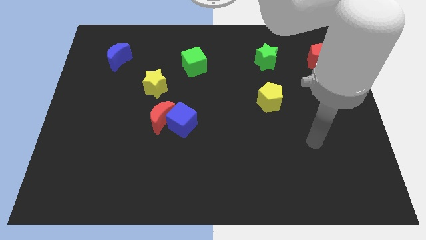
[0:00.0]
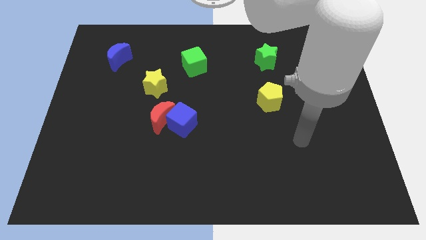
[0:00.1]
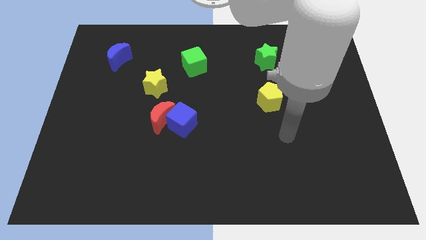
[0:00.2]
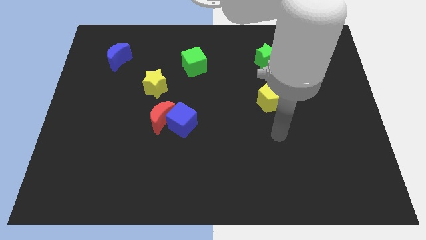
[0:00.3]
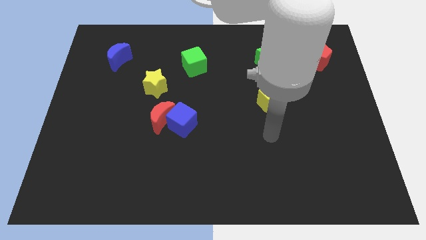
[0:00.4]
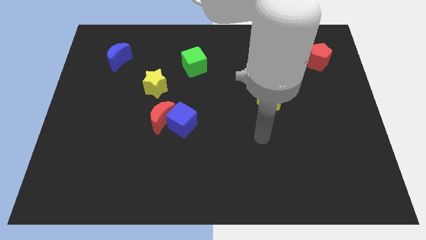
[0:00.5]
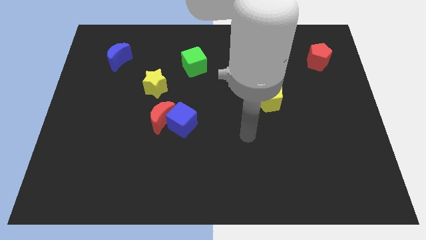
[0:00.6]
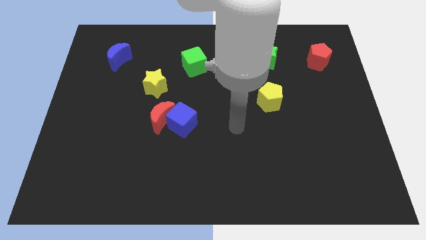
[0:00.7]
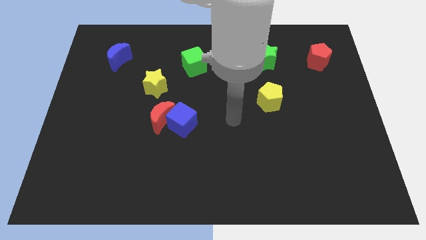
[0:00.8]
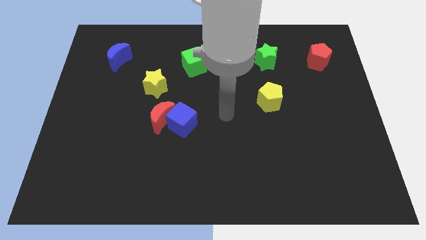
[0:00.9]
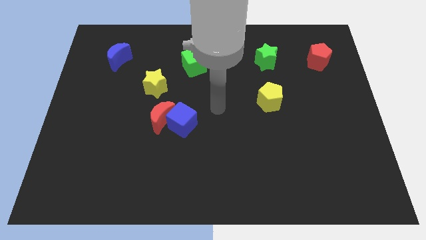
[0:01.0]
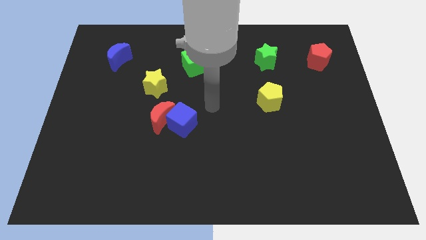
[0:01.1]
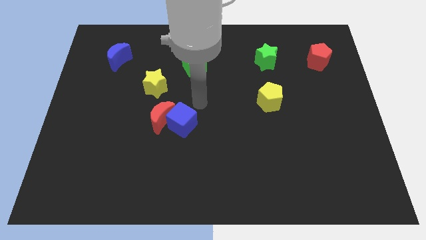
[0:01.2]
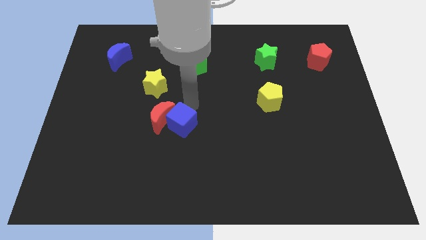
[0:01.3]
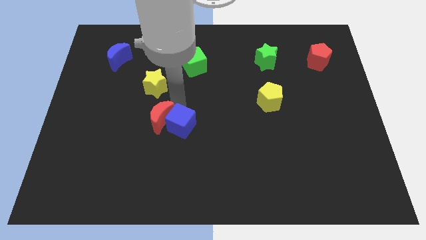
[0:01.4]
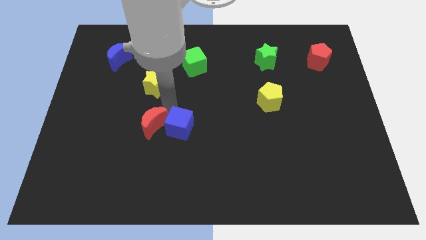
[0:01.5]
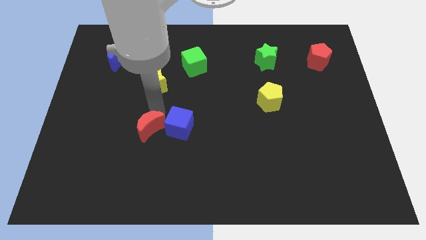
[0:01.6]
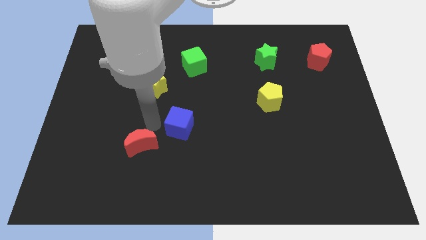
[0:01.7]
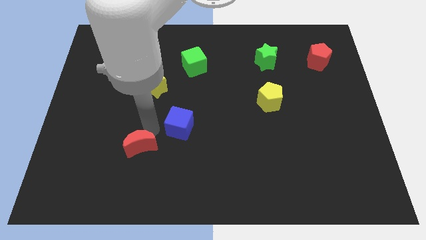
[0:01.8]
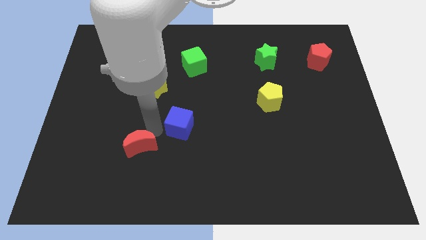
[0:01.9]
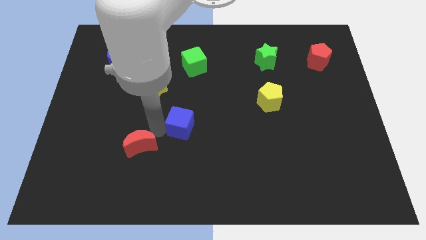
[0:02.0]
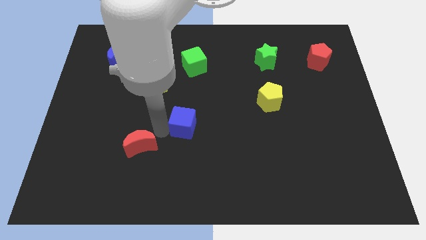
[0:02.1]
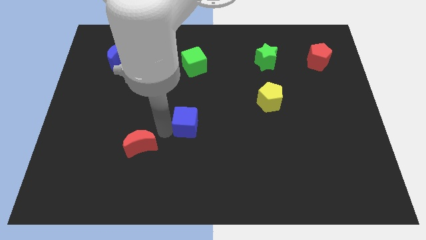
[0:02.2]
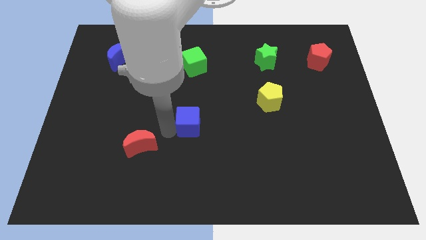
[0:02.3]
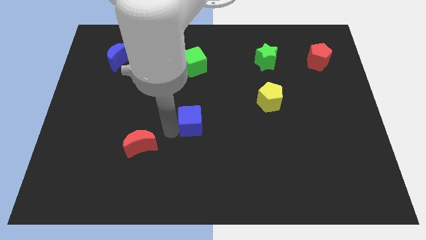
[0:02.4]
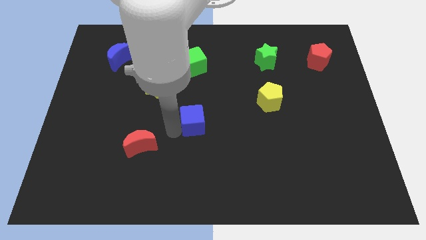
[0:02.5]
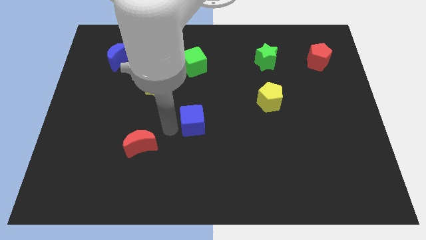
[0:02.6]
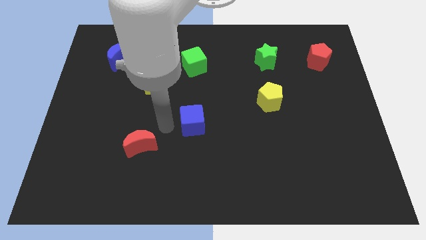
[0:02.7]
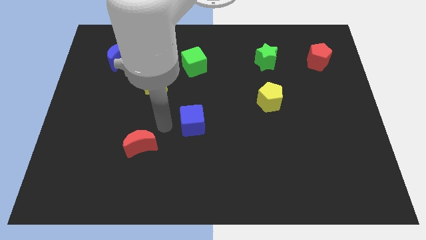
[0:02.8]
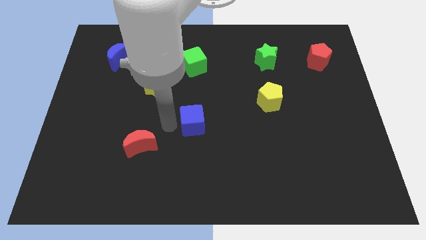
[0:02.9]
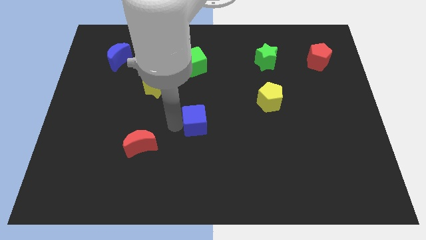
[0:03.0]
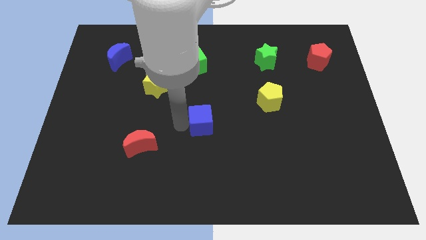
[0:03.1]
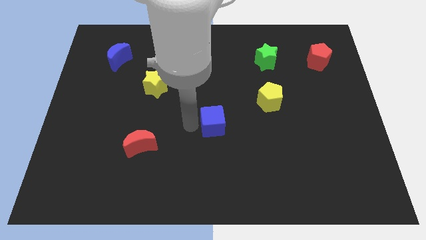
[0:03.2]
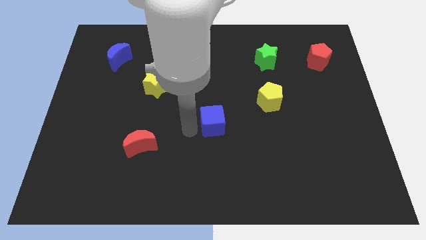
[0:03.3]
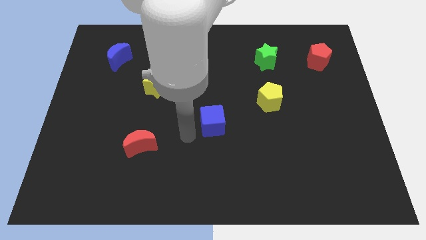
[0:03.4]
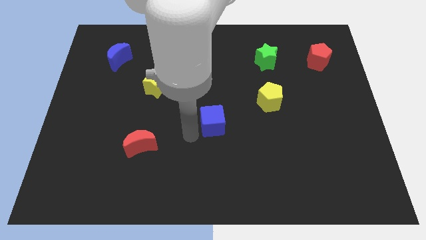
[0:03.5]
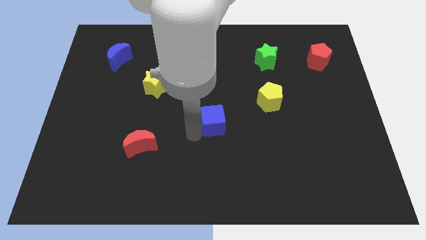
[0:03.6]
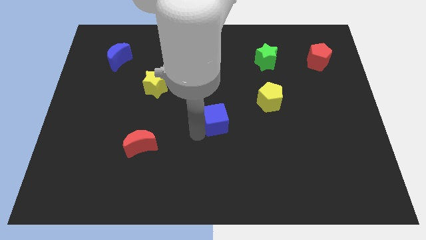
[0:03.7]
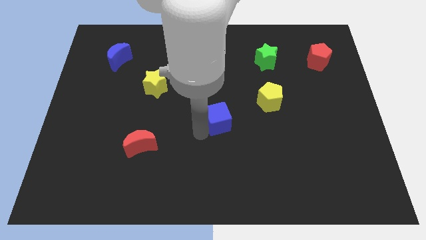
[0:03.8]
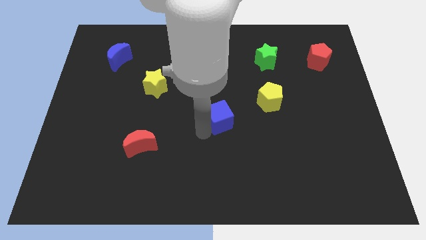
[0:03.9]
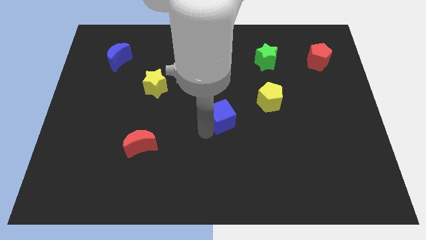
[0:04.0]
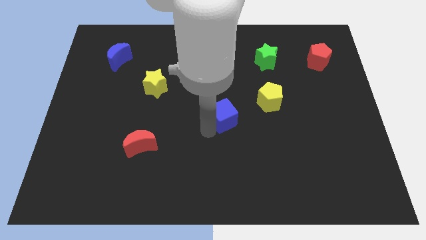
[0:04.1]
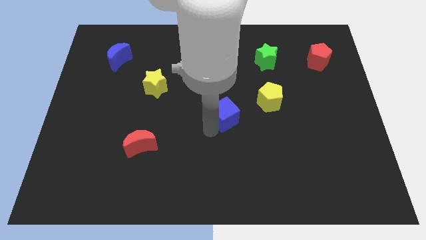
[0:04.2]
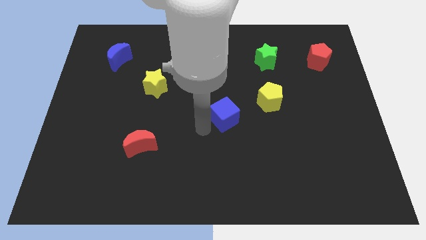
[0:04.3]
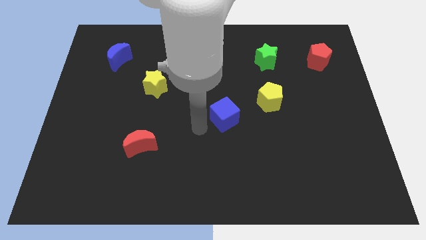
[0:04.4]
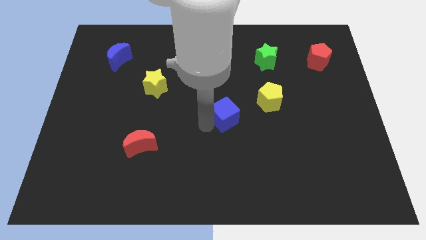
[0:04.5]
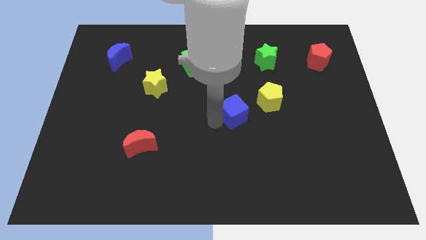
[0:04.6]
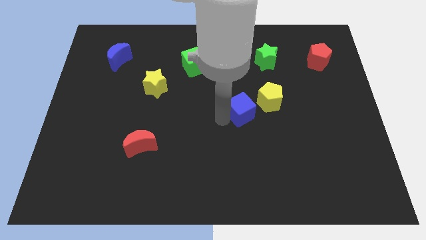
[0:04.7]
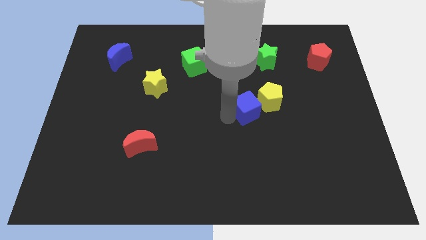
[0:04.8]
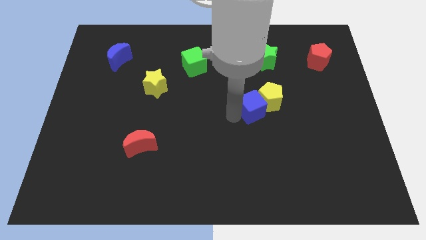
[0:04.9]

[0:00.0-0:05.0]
put the blue cube towards the yellow pentagon

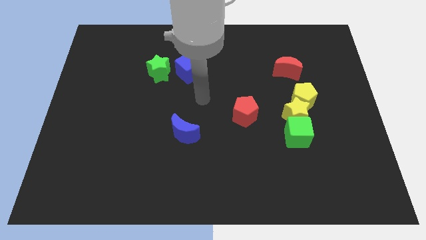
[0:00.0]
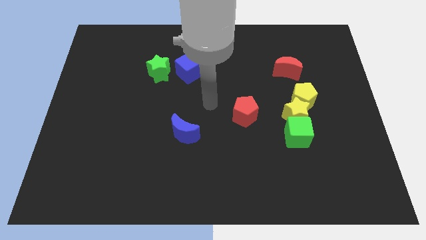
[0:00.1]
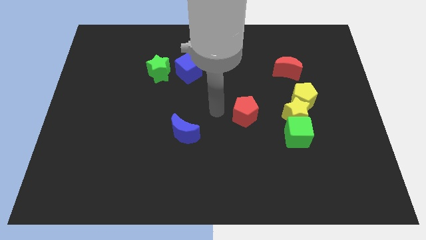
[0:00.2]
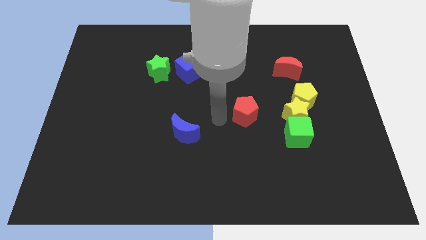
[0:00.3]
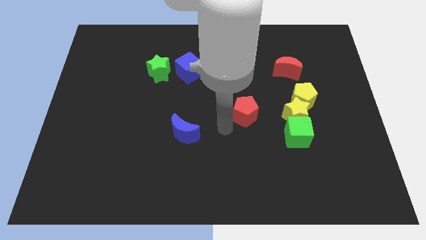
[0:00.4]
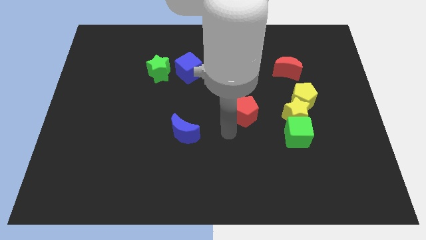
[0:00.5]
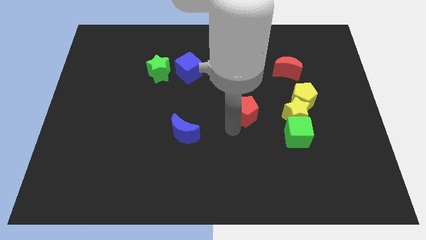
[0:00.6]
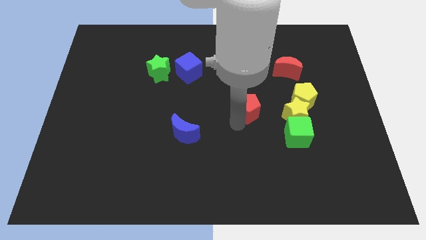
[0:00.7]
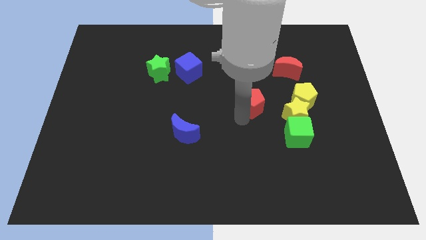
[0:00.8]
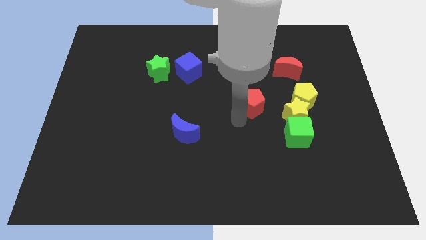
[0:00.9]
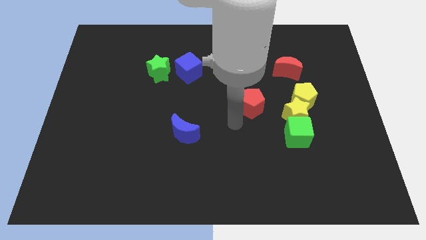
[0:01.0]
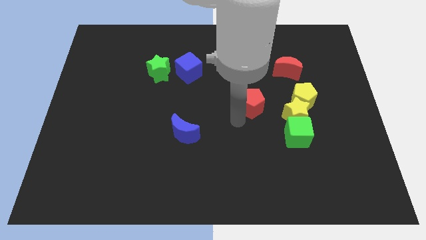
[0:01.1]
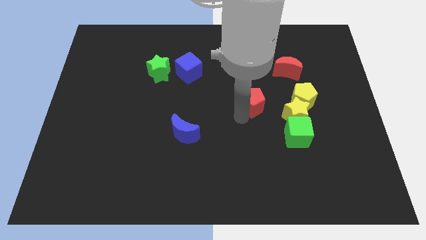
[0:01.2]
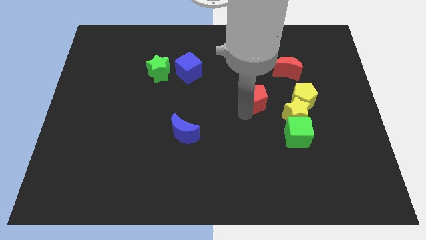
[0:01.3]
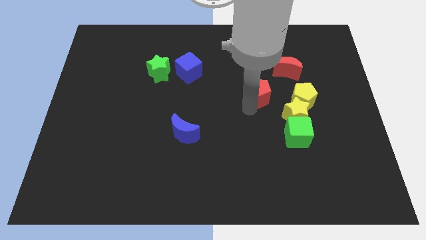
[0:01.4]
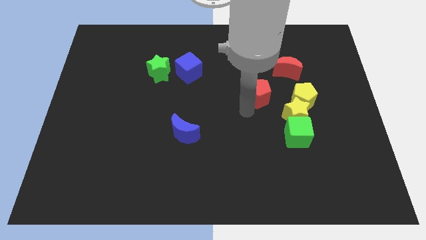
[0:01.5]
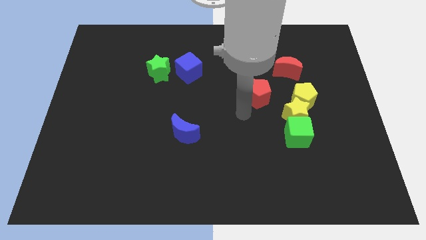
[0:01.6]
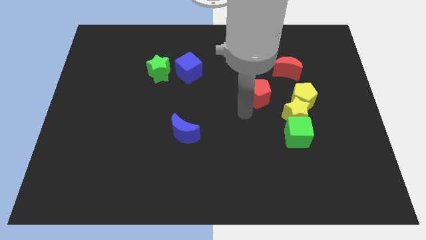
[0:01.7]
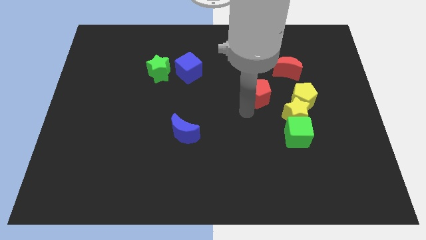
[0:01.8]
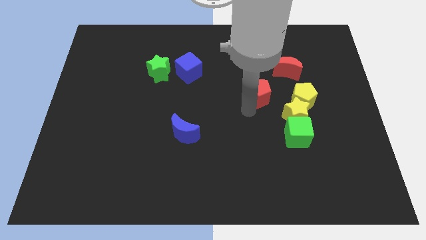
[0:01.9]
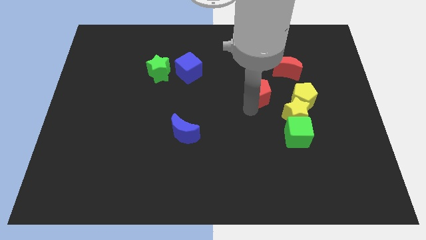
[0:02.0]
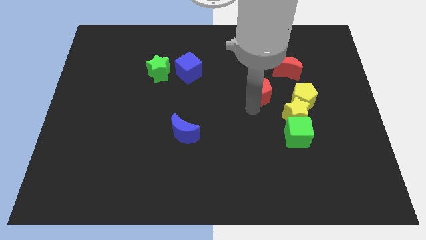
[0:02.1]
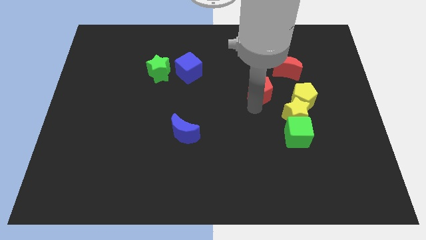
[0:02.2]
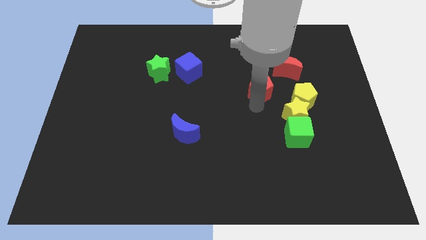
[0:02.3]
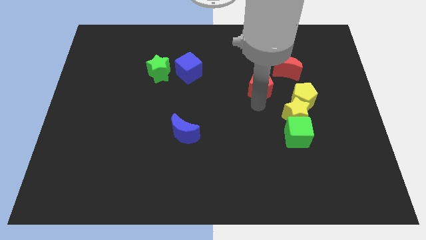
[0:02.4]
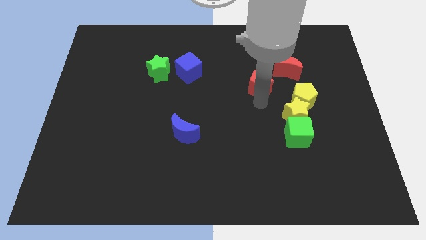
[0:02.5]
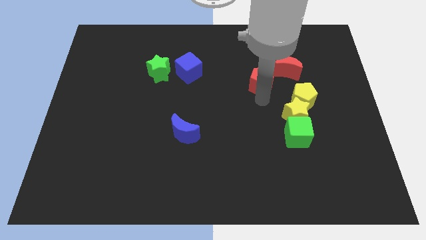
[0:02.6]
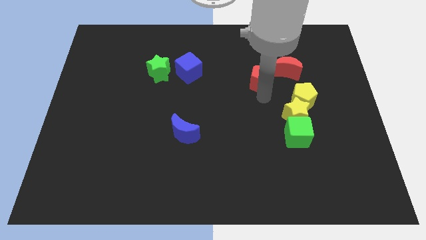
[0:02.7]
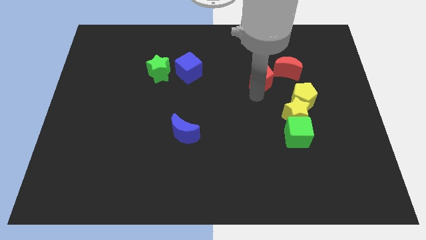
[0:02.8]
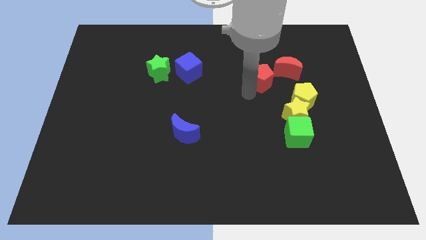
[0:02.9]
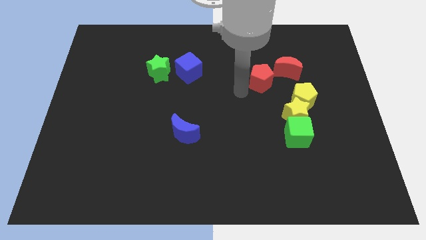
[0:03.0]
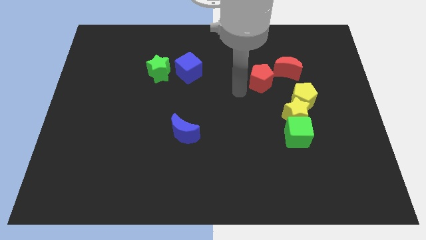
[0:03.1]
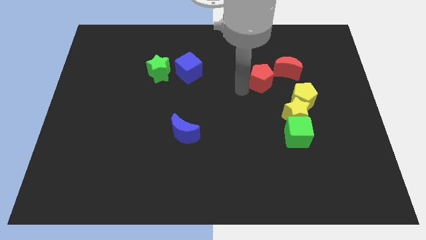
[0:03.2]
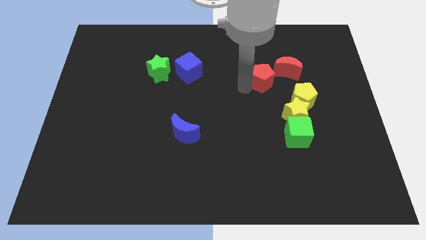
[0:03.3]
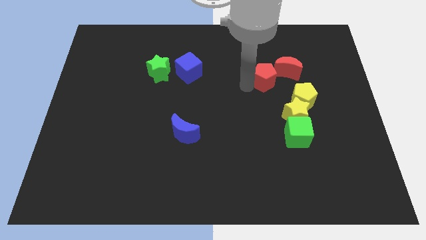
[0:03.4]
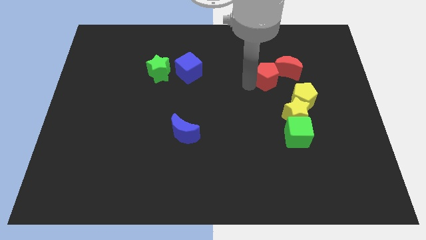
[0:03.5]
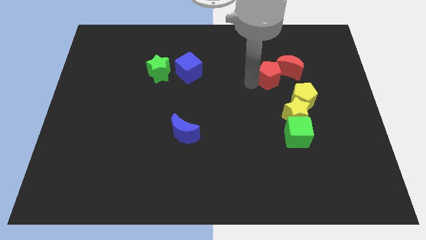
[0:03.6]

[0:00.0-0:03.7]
put the red pentagon next to the red moon

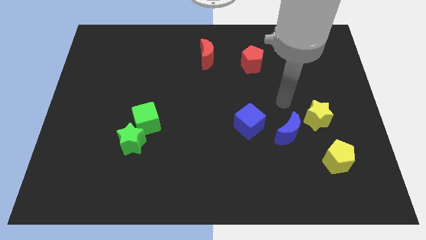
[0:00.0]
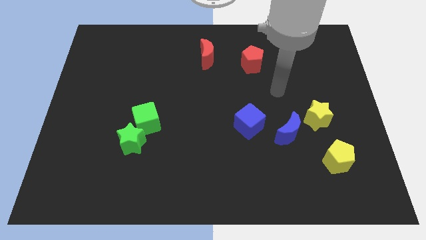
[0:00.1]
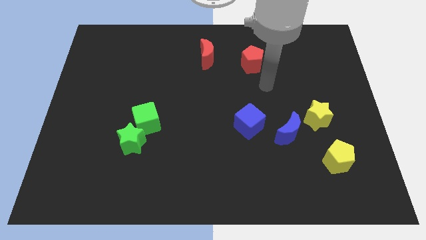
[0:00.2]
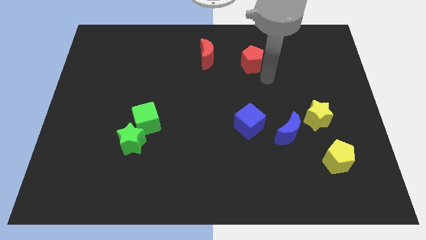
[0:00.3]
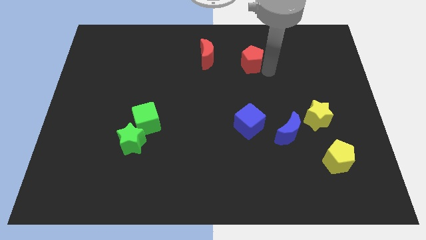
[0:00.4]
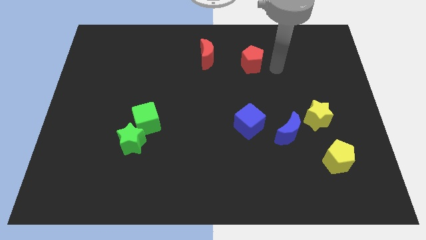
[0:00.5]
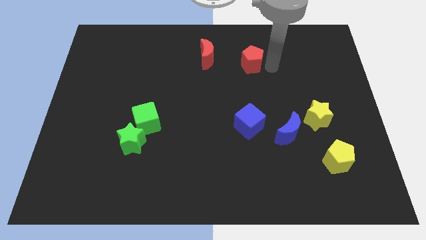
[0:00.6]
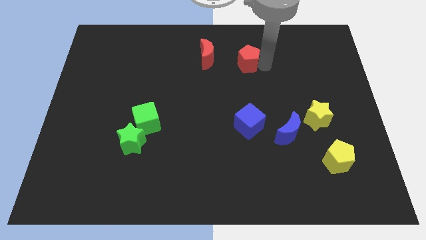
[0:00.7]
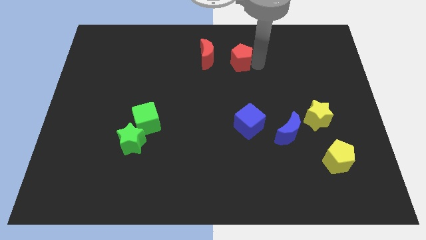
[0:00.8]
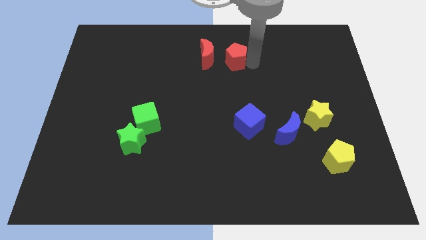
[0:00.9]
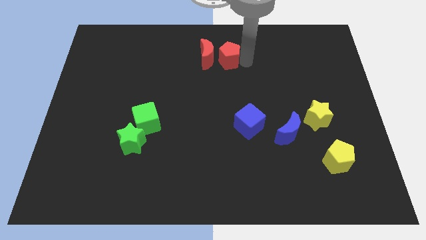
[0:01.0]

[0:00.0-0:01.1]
move the red pentagon to the red moon
